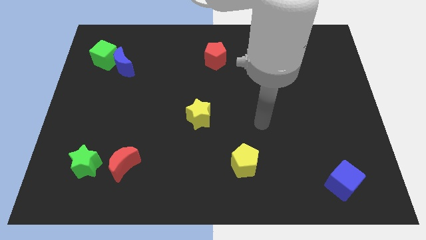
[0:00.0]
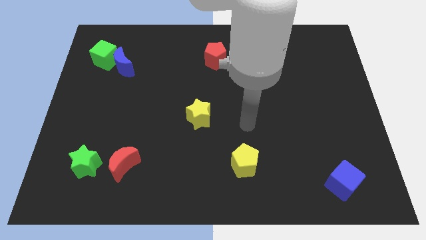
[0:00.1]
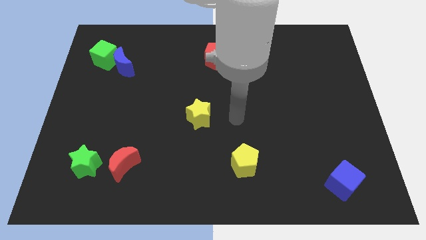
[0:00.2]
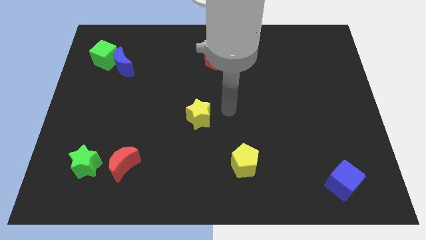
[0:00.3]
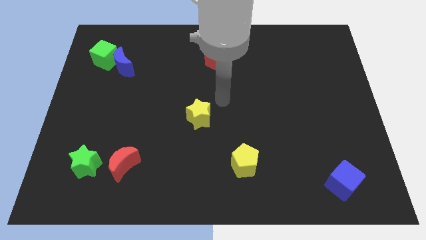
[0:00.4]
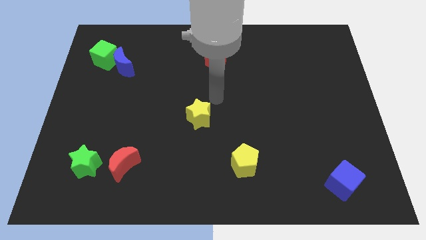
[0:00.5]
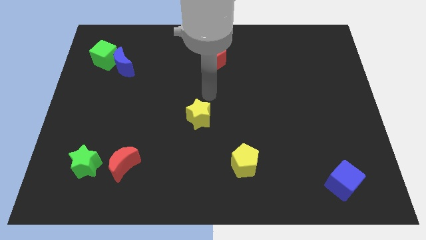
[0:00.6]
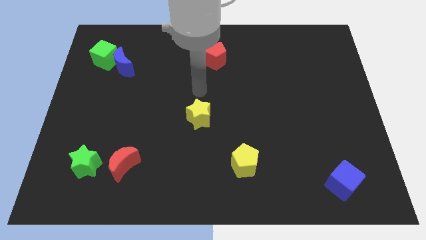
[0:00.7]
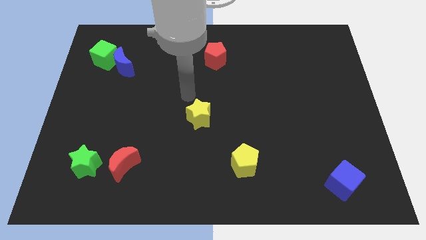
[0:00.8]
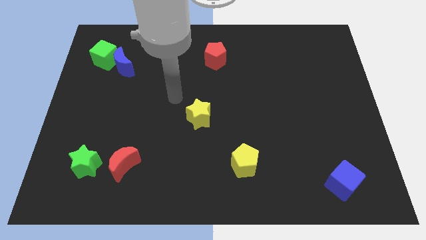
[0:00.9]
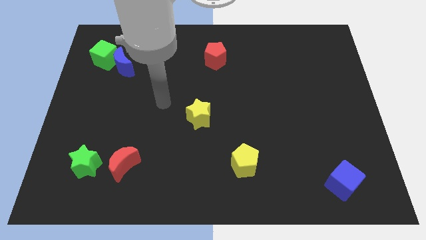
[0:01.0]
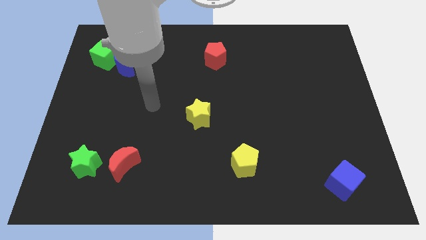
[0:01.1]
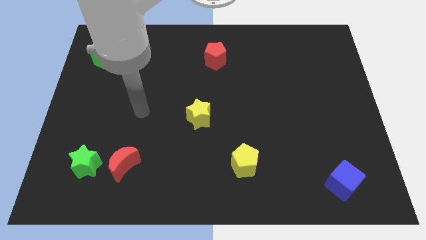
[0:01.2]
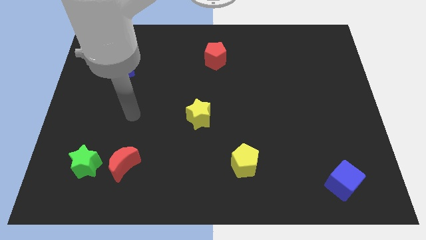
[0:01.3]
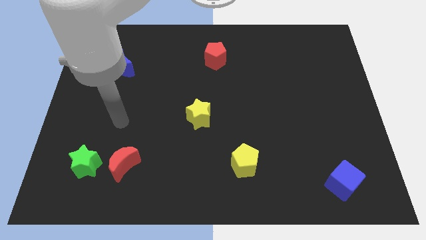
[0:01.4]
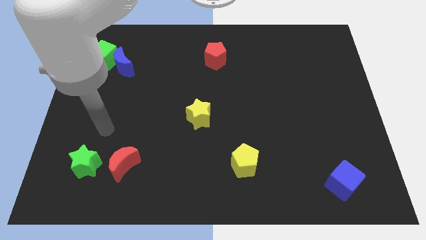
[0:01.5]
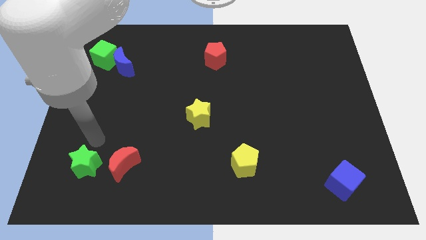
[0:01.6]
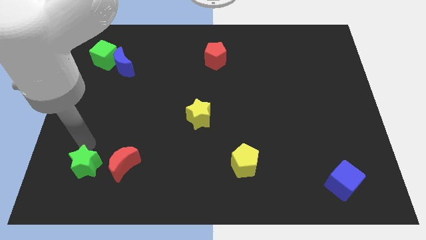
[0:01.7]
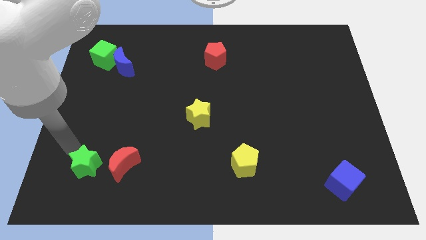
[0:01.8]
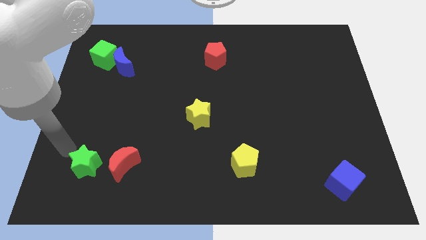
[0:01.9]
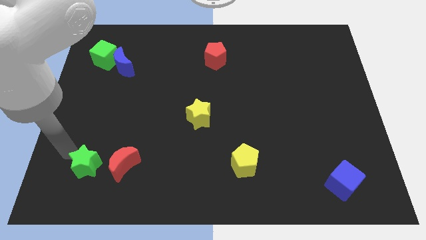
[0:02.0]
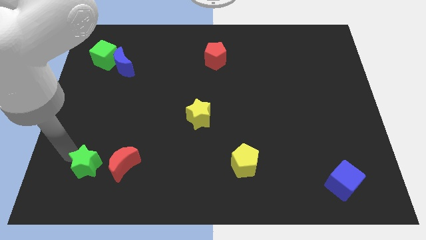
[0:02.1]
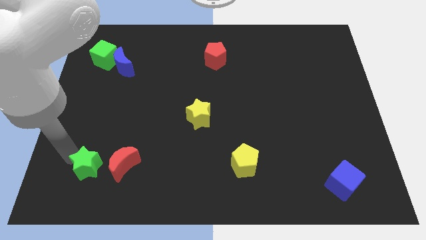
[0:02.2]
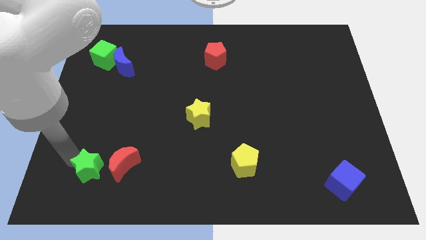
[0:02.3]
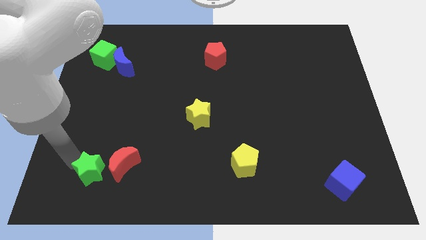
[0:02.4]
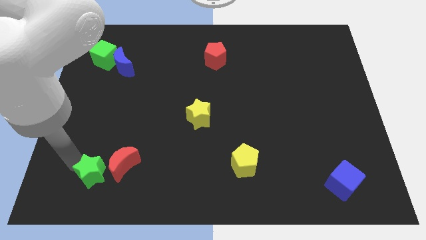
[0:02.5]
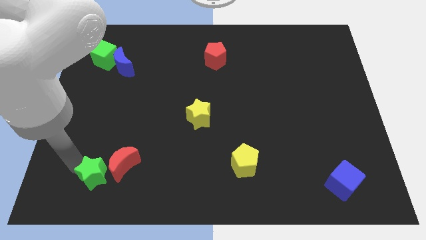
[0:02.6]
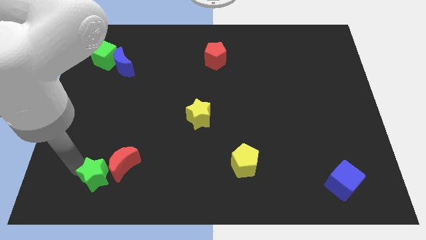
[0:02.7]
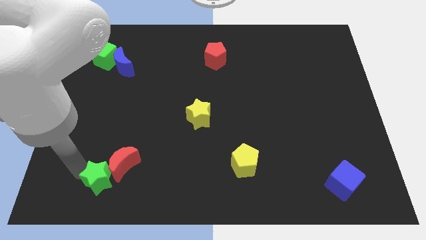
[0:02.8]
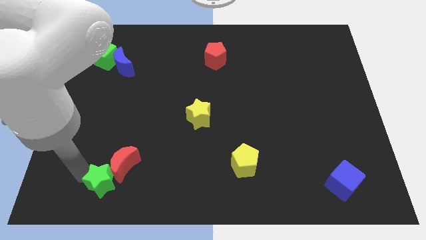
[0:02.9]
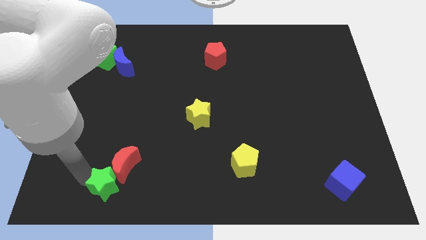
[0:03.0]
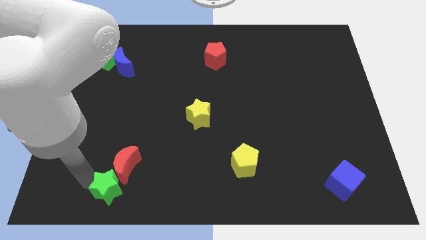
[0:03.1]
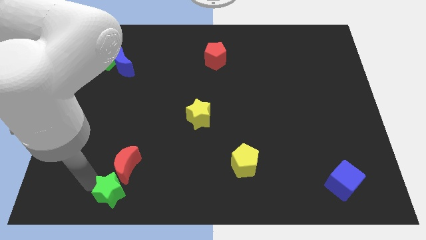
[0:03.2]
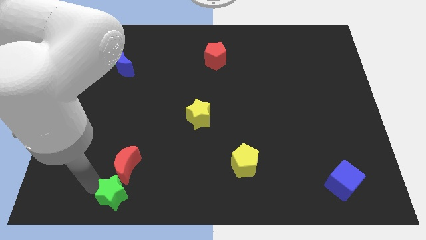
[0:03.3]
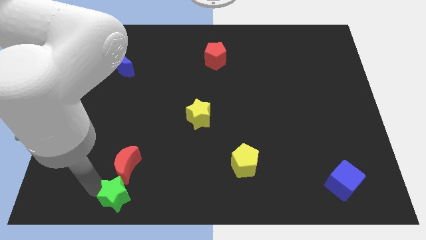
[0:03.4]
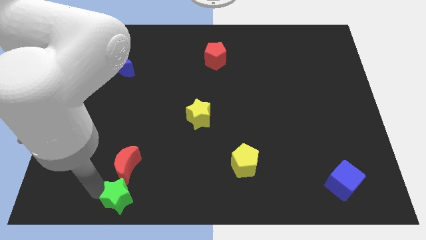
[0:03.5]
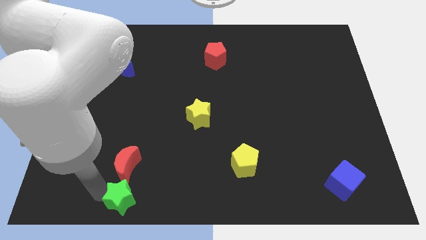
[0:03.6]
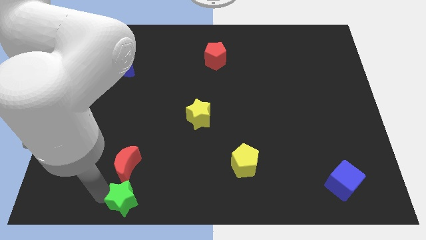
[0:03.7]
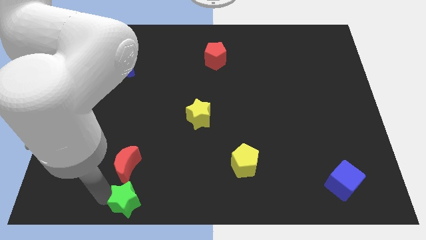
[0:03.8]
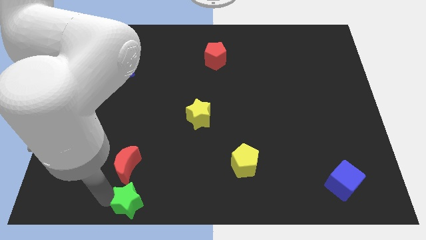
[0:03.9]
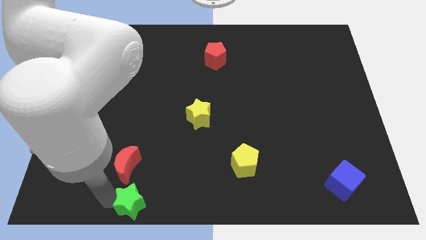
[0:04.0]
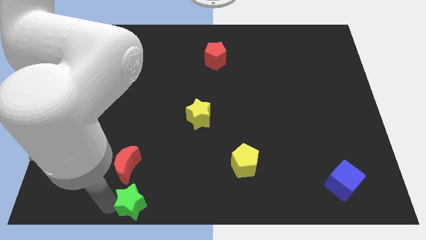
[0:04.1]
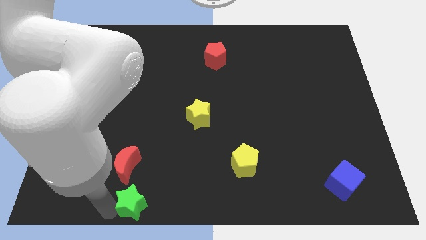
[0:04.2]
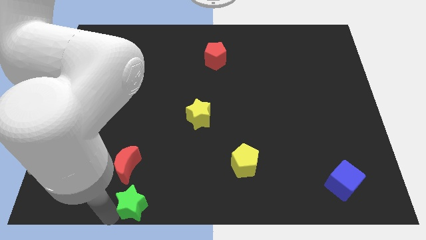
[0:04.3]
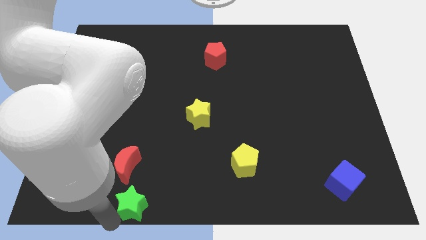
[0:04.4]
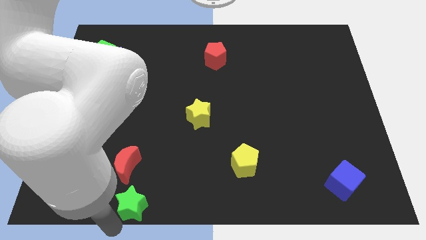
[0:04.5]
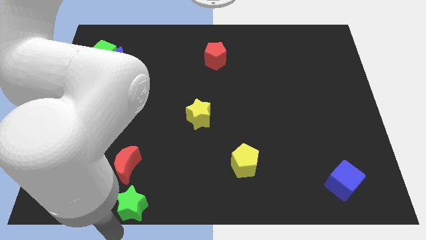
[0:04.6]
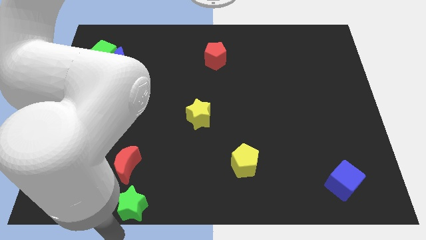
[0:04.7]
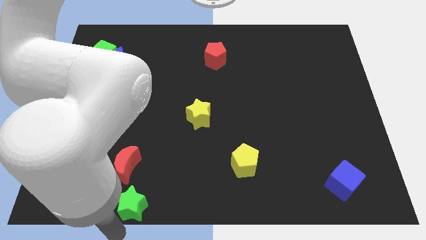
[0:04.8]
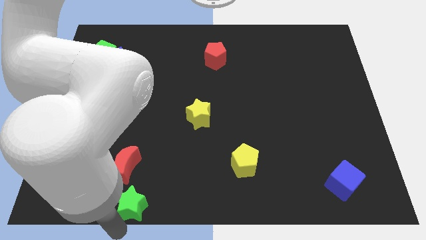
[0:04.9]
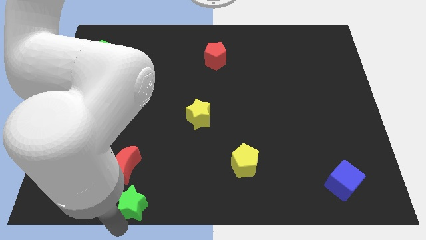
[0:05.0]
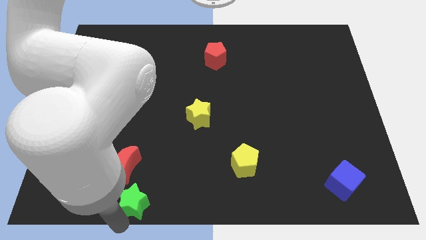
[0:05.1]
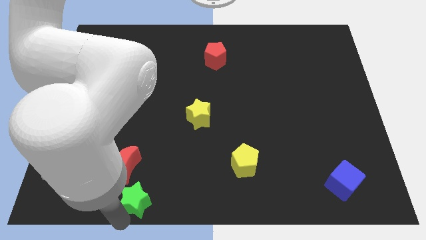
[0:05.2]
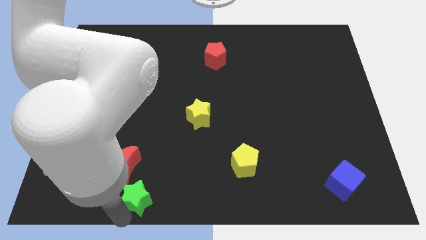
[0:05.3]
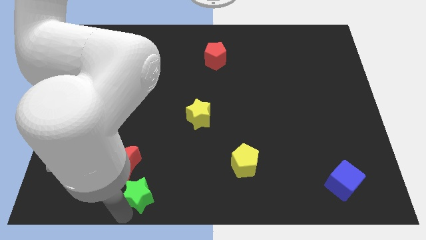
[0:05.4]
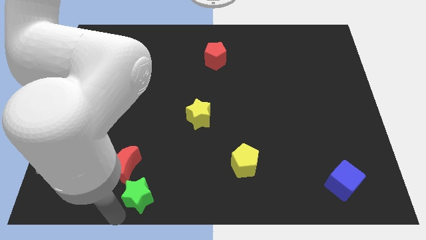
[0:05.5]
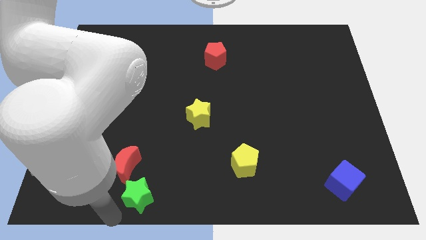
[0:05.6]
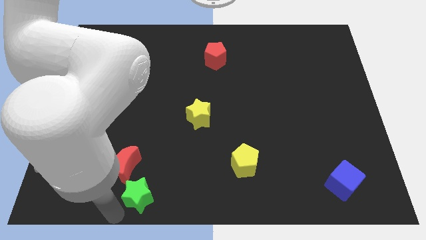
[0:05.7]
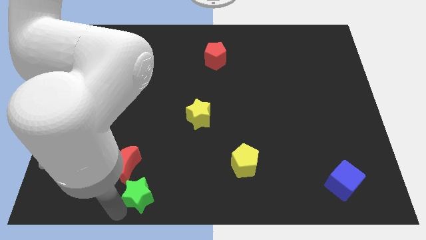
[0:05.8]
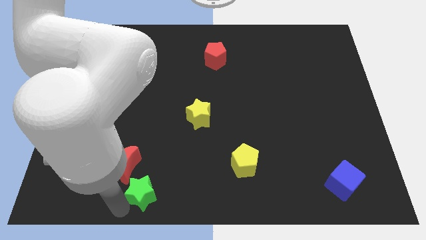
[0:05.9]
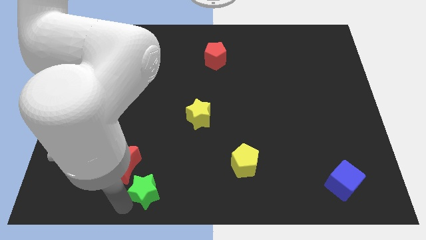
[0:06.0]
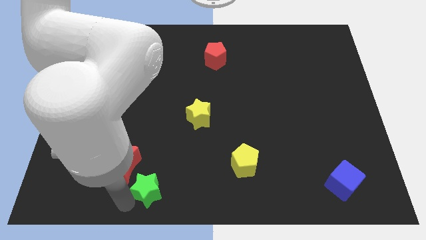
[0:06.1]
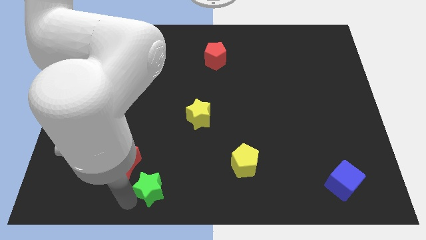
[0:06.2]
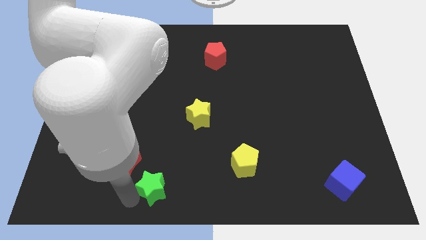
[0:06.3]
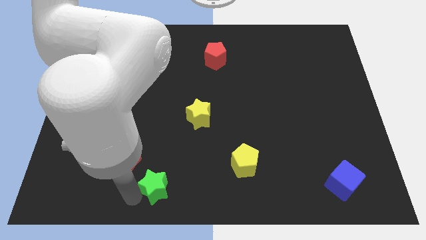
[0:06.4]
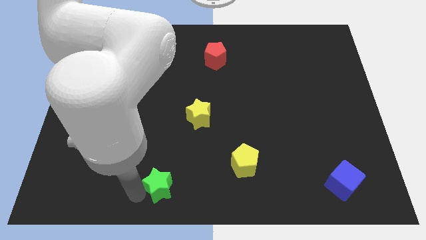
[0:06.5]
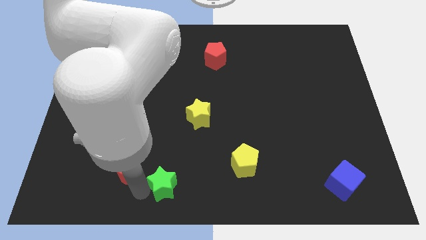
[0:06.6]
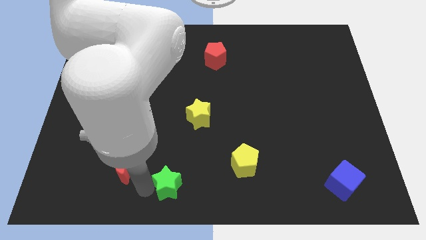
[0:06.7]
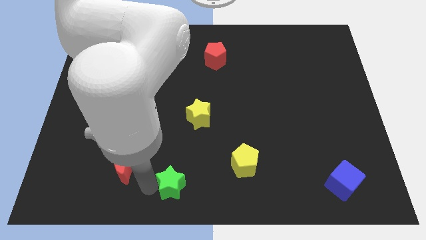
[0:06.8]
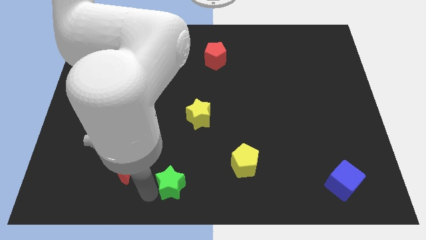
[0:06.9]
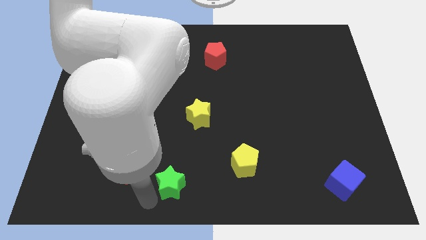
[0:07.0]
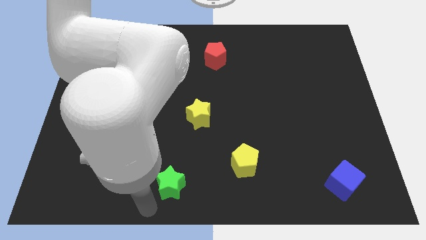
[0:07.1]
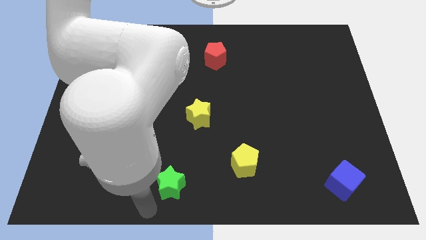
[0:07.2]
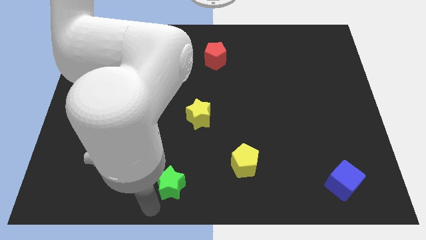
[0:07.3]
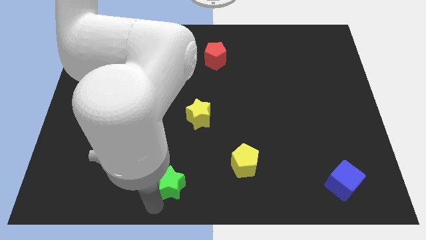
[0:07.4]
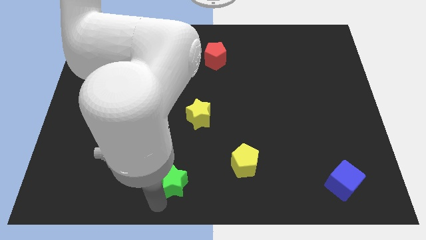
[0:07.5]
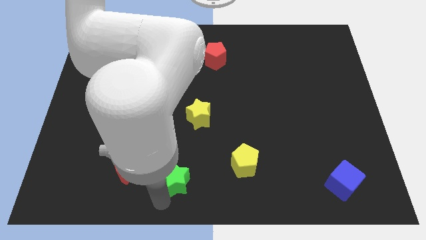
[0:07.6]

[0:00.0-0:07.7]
slide the green star to the left side of the yellow pentagon

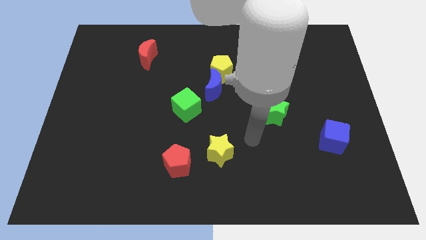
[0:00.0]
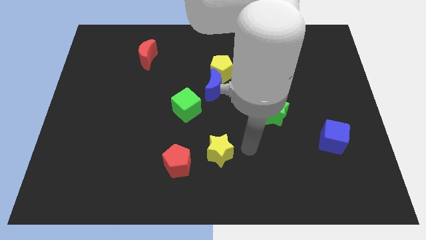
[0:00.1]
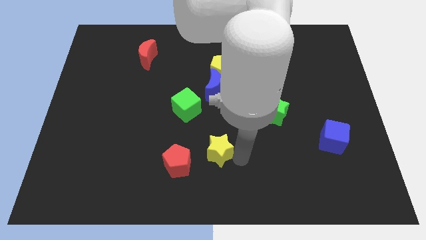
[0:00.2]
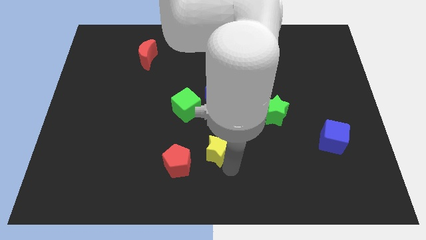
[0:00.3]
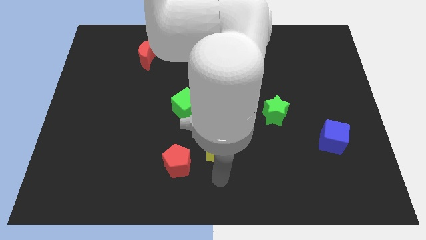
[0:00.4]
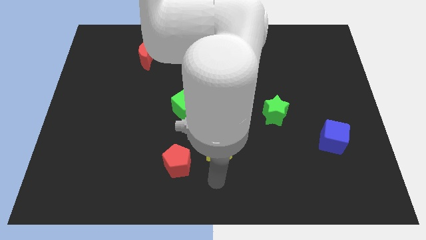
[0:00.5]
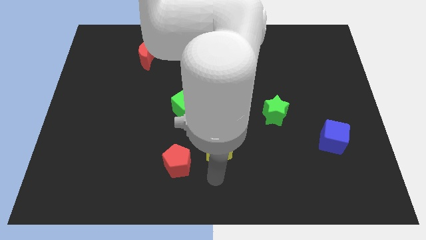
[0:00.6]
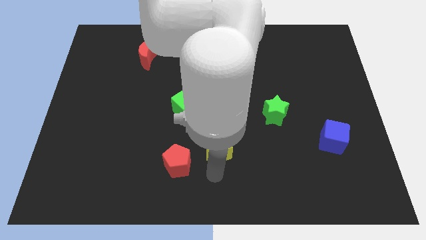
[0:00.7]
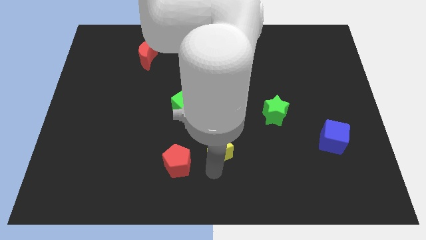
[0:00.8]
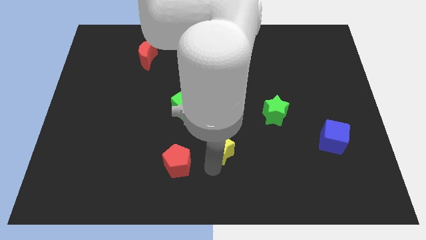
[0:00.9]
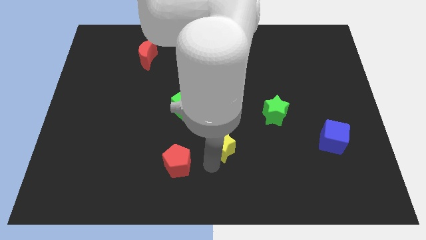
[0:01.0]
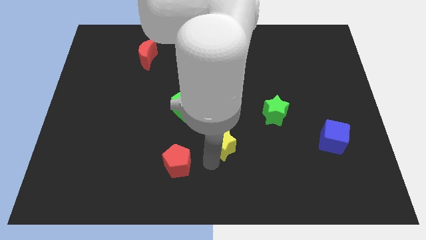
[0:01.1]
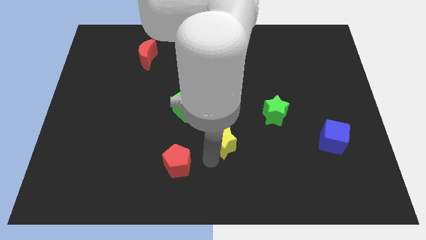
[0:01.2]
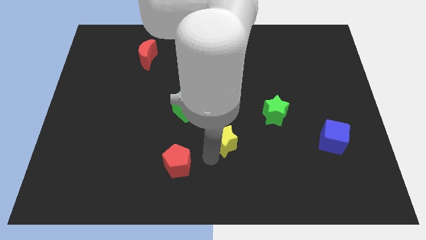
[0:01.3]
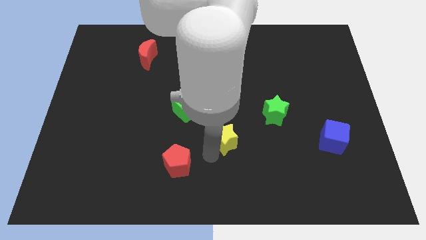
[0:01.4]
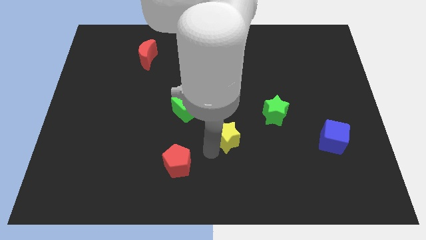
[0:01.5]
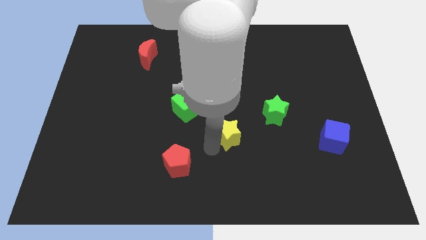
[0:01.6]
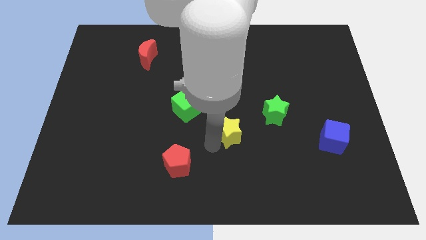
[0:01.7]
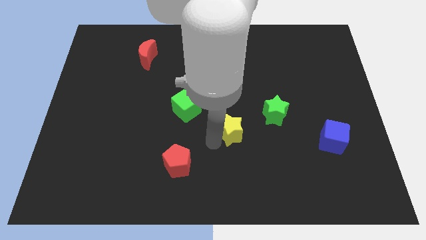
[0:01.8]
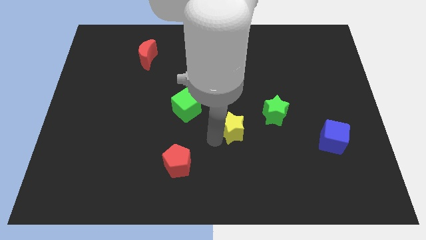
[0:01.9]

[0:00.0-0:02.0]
push the yellow star left of the green star
